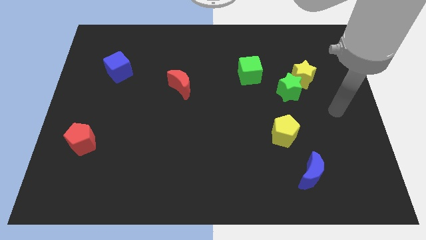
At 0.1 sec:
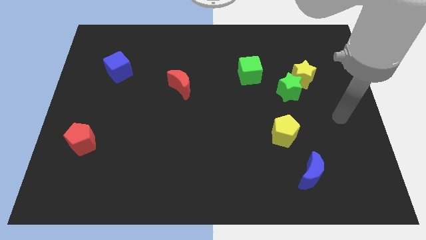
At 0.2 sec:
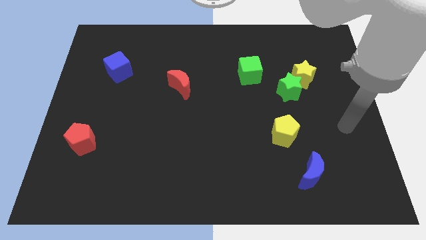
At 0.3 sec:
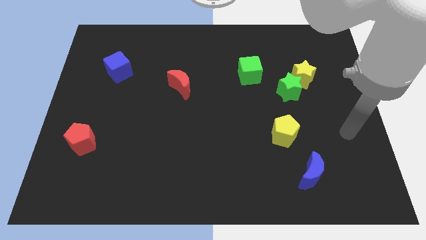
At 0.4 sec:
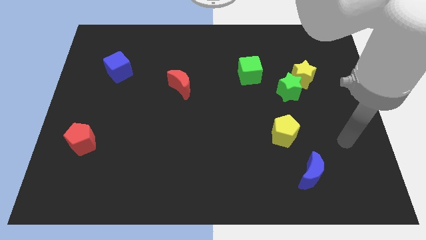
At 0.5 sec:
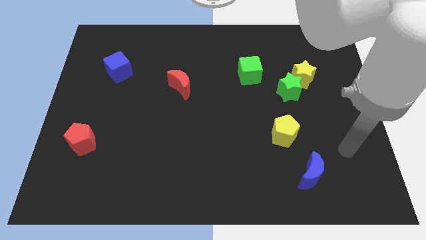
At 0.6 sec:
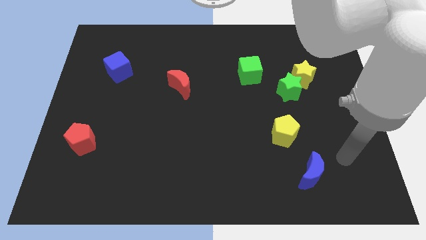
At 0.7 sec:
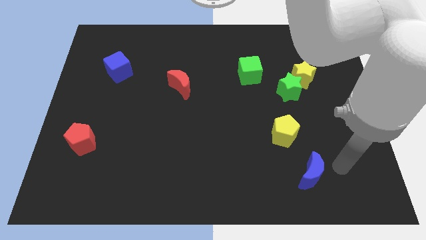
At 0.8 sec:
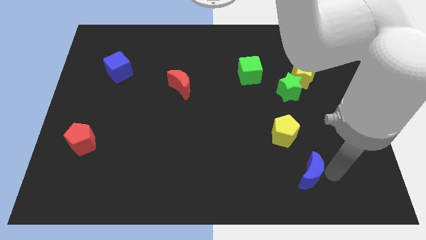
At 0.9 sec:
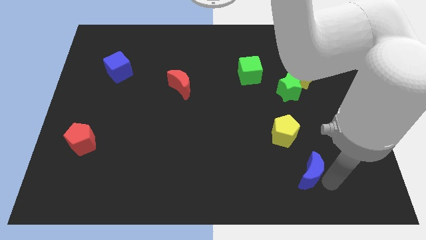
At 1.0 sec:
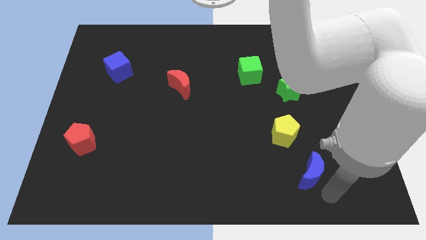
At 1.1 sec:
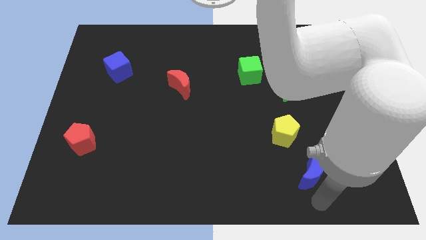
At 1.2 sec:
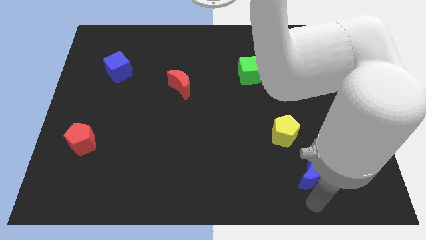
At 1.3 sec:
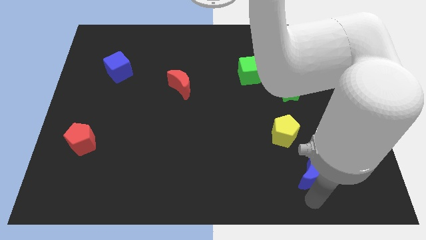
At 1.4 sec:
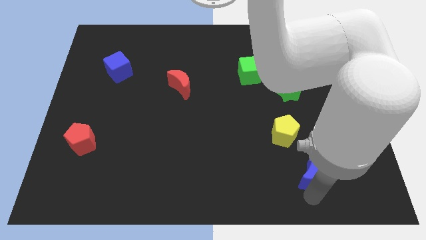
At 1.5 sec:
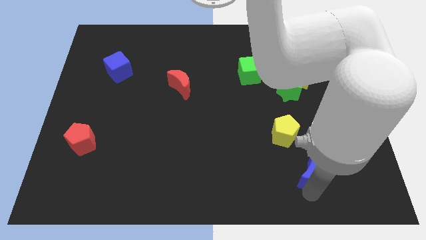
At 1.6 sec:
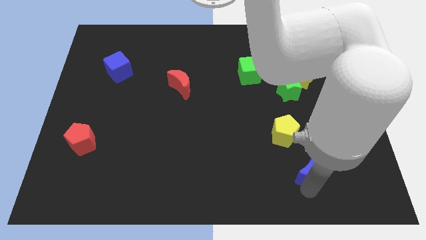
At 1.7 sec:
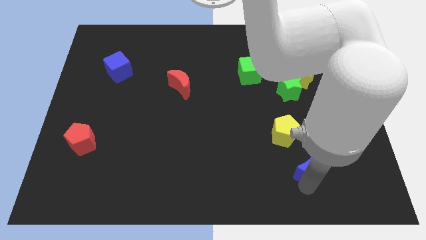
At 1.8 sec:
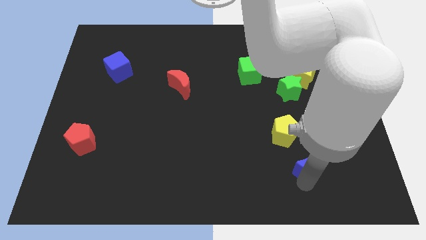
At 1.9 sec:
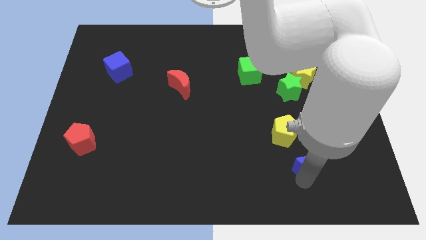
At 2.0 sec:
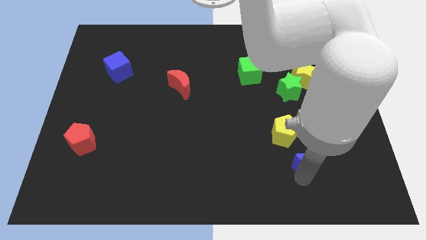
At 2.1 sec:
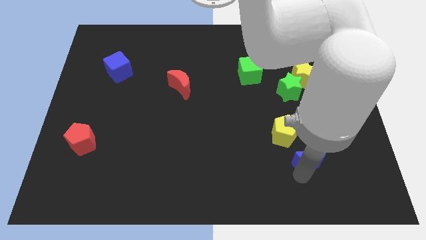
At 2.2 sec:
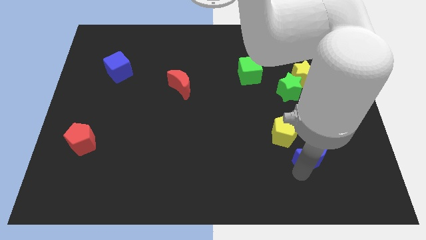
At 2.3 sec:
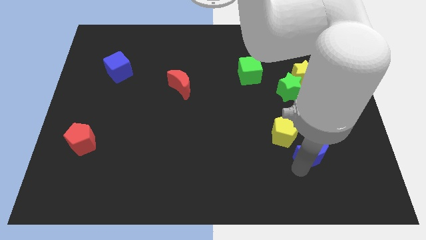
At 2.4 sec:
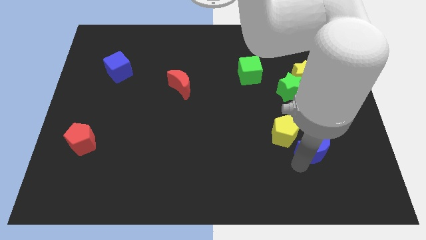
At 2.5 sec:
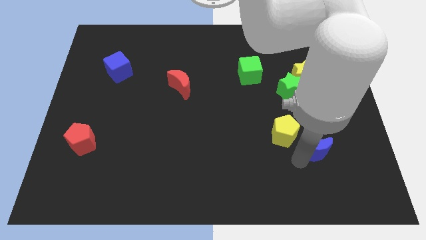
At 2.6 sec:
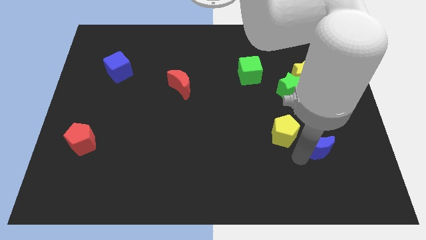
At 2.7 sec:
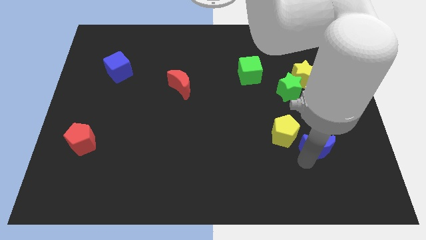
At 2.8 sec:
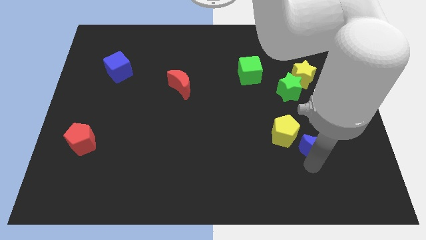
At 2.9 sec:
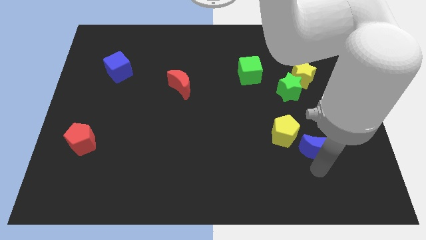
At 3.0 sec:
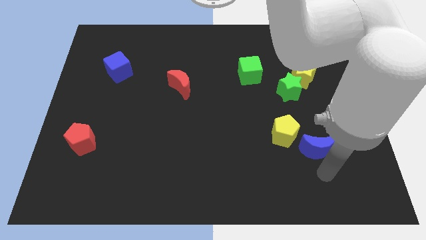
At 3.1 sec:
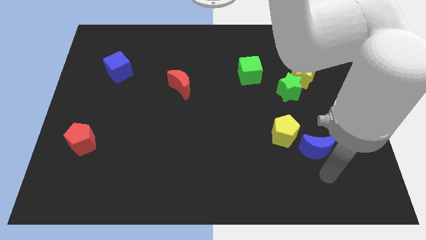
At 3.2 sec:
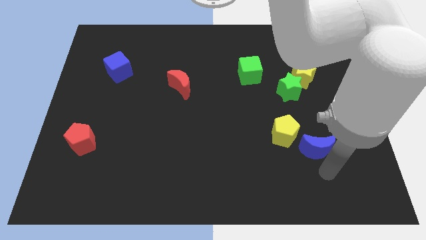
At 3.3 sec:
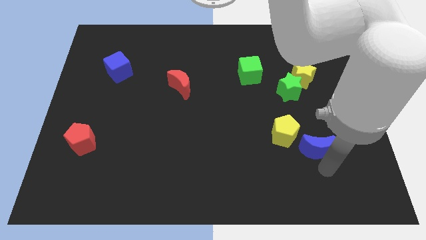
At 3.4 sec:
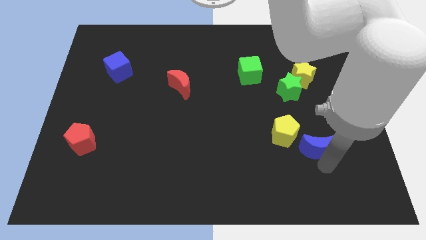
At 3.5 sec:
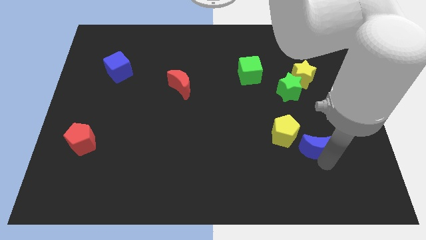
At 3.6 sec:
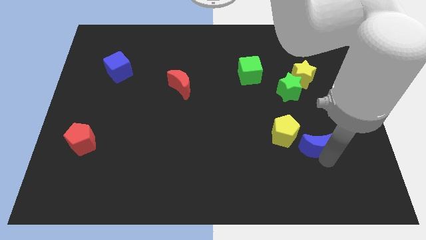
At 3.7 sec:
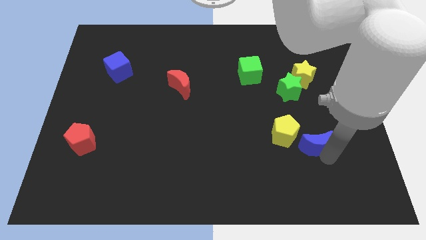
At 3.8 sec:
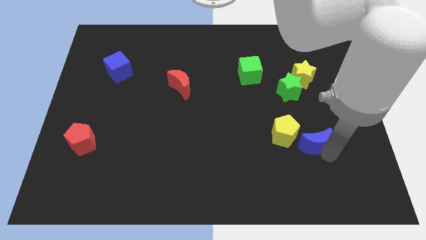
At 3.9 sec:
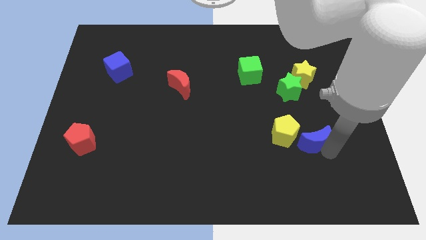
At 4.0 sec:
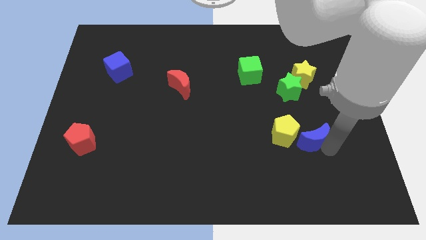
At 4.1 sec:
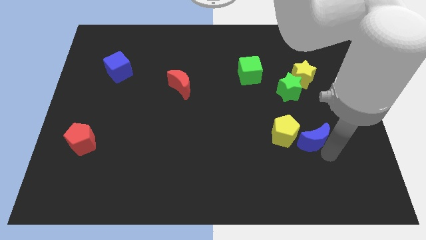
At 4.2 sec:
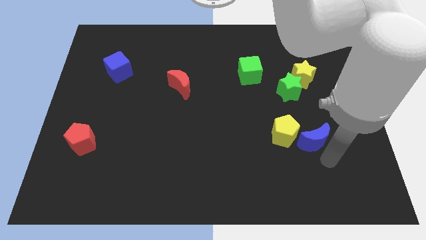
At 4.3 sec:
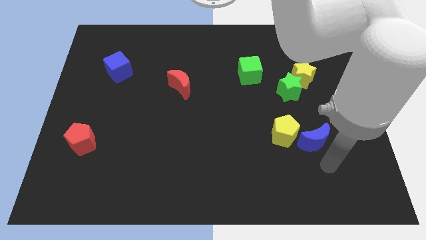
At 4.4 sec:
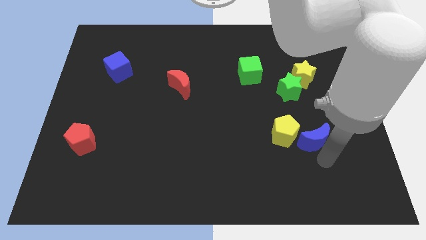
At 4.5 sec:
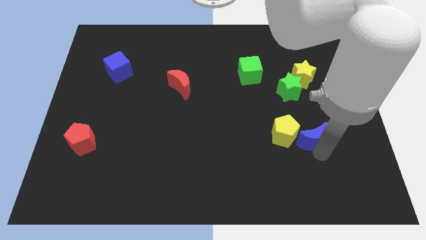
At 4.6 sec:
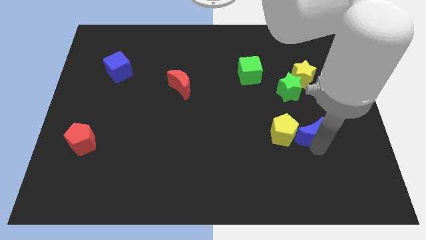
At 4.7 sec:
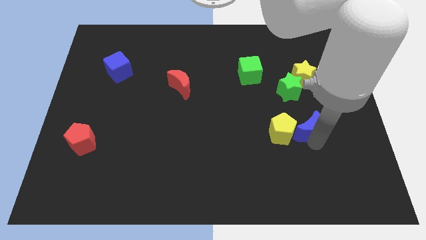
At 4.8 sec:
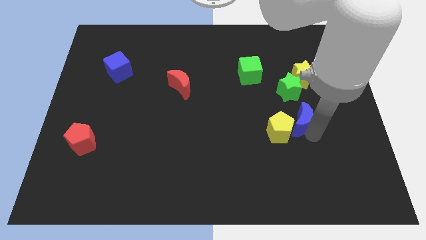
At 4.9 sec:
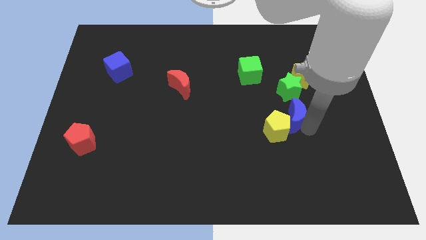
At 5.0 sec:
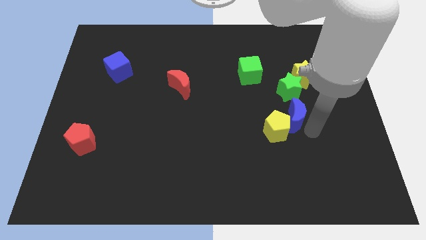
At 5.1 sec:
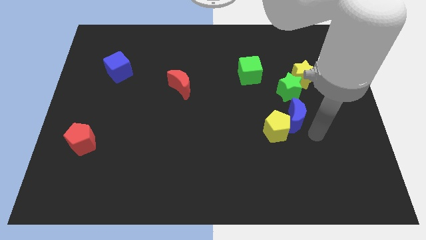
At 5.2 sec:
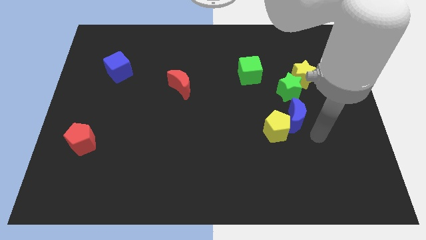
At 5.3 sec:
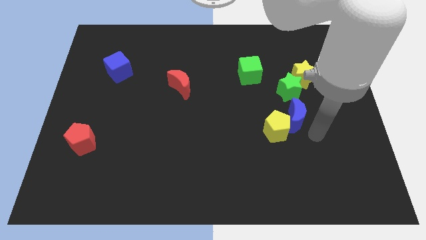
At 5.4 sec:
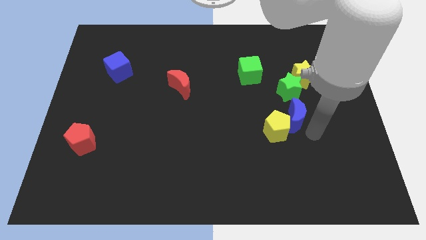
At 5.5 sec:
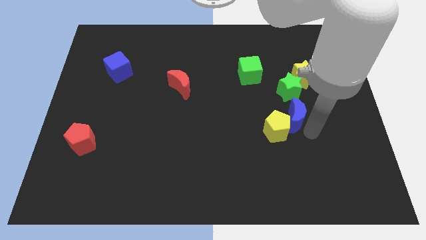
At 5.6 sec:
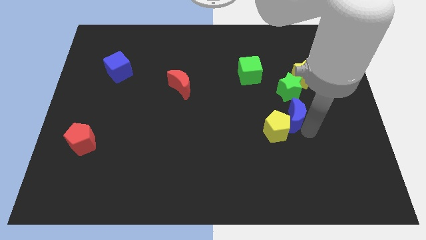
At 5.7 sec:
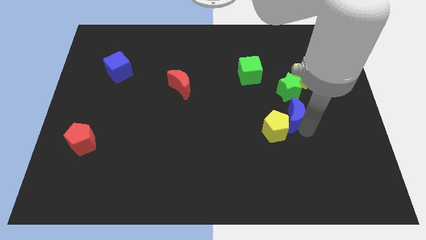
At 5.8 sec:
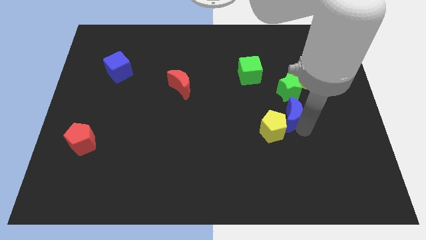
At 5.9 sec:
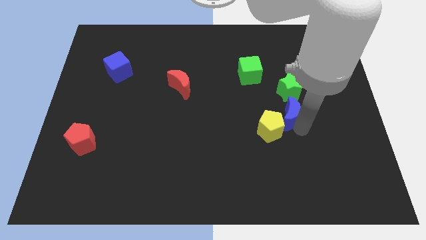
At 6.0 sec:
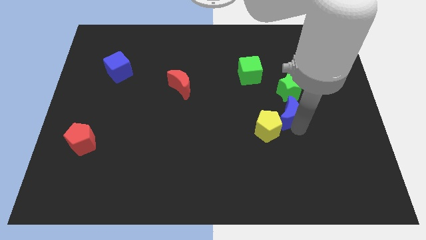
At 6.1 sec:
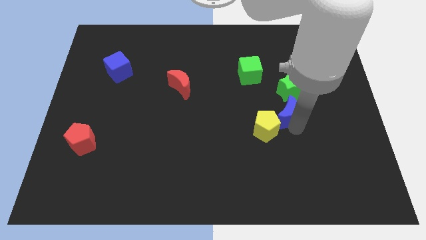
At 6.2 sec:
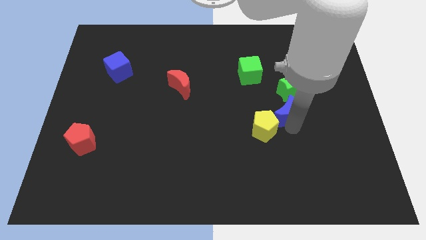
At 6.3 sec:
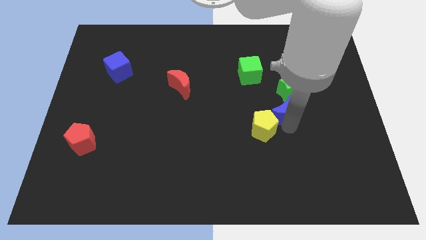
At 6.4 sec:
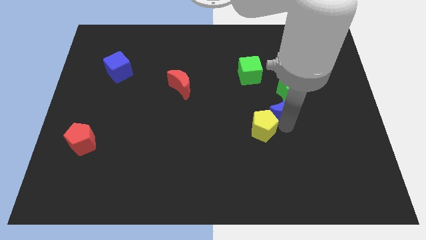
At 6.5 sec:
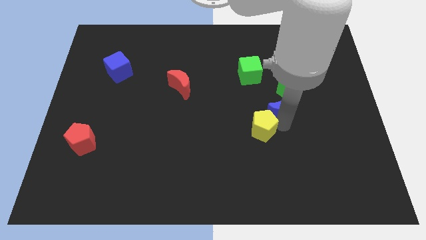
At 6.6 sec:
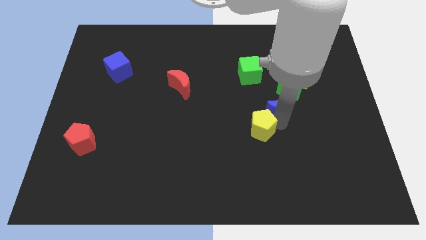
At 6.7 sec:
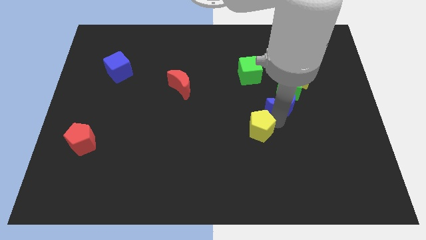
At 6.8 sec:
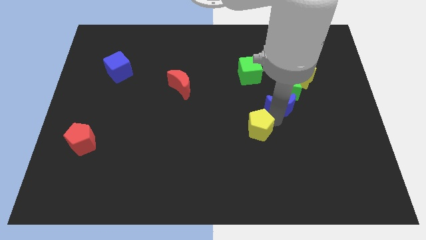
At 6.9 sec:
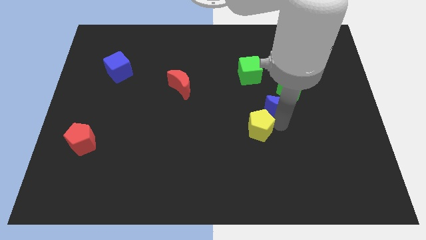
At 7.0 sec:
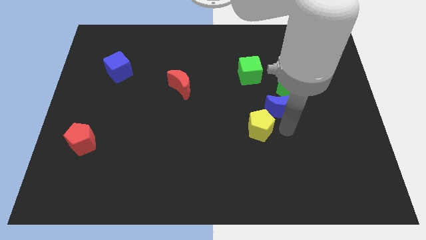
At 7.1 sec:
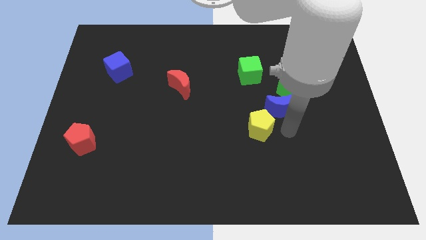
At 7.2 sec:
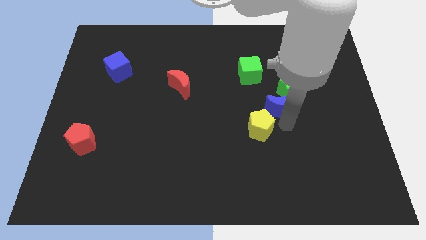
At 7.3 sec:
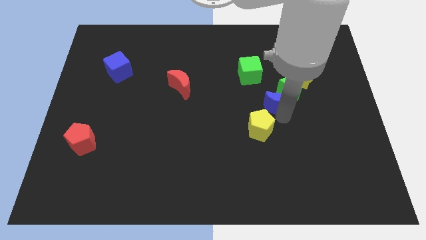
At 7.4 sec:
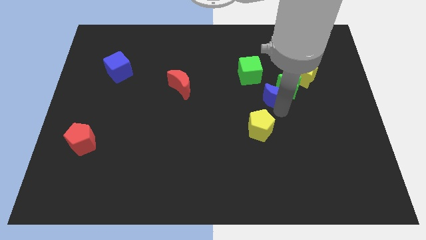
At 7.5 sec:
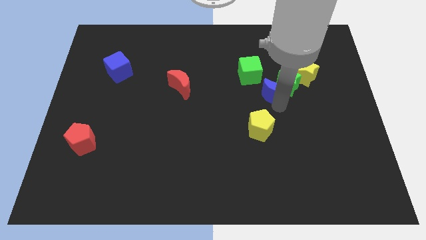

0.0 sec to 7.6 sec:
slide the blue moon upwards

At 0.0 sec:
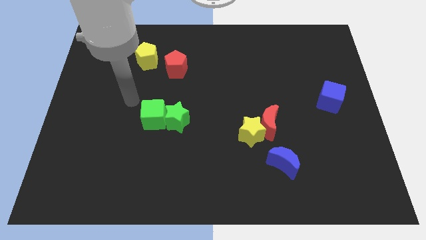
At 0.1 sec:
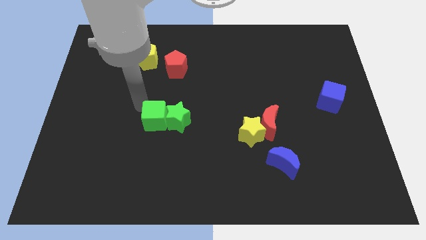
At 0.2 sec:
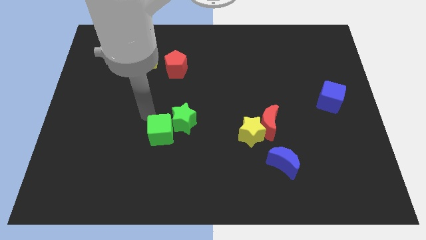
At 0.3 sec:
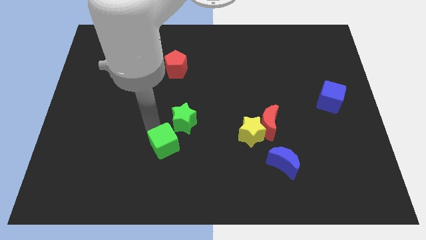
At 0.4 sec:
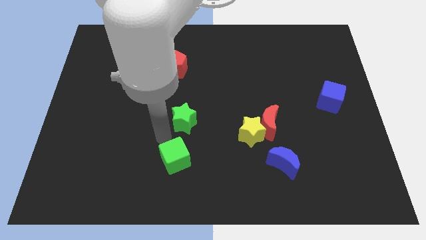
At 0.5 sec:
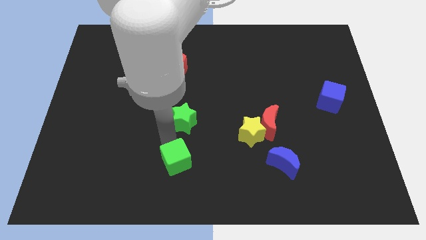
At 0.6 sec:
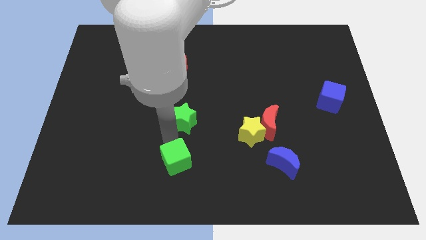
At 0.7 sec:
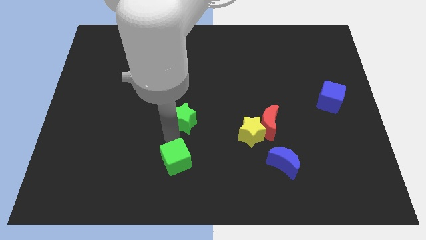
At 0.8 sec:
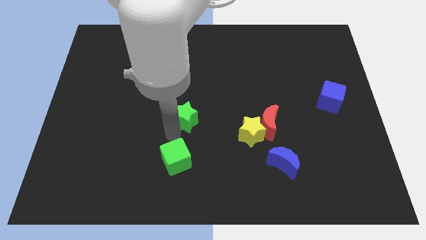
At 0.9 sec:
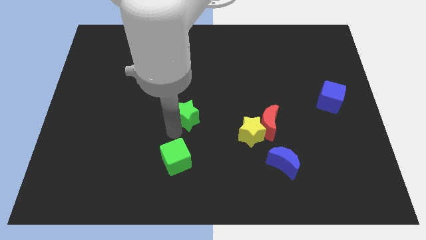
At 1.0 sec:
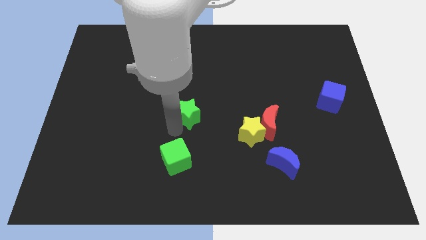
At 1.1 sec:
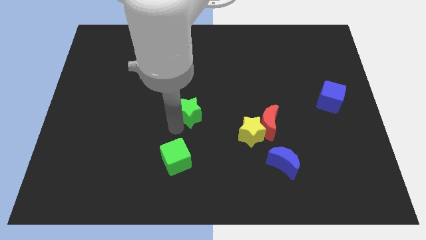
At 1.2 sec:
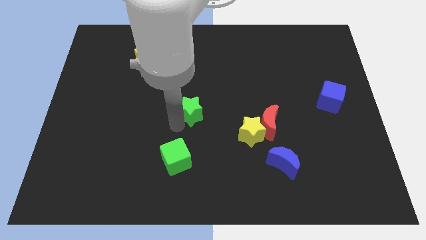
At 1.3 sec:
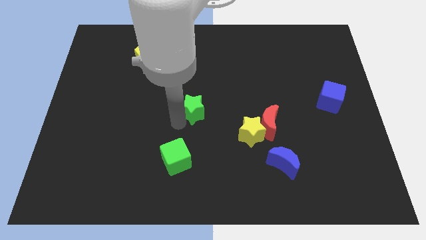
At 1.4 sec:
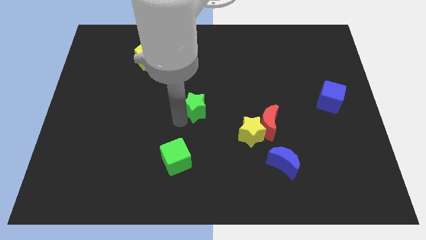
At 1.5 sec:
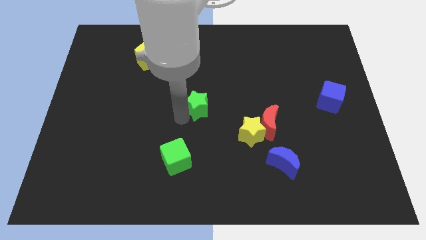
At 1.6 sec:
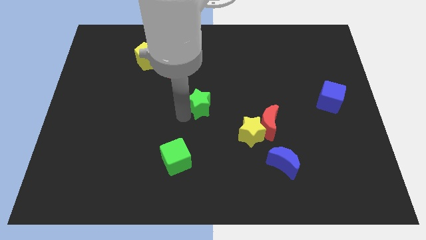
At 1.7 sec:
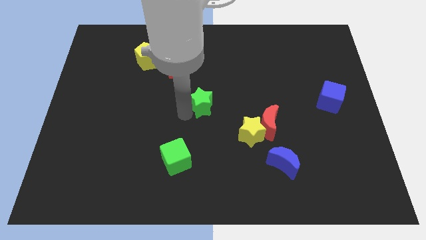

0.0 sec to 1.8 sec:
move the green star somewhat up and then right
